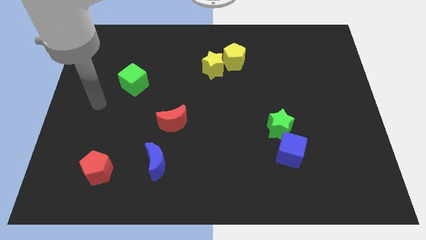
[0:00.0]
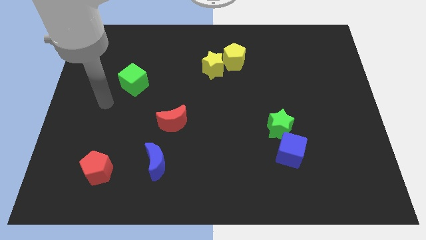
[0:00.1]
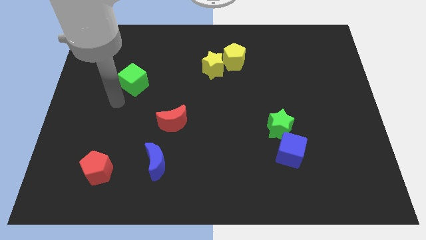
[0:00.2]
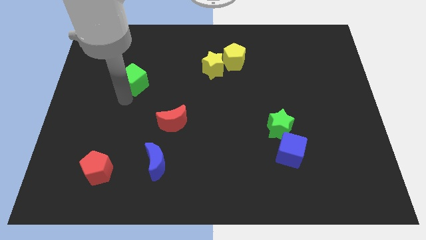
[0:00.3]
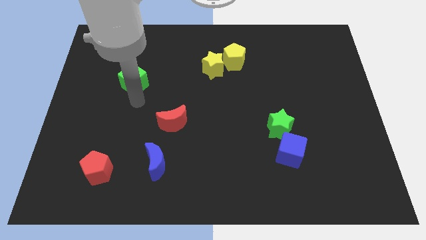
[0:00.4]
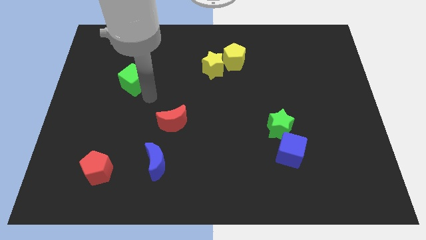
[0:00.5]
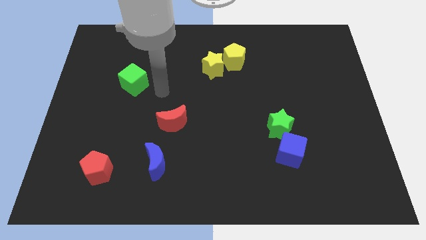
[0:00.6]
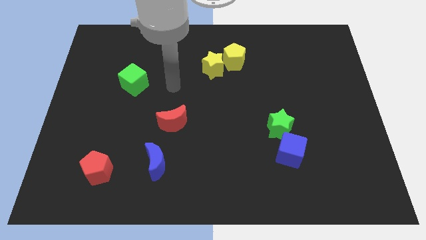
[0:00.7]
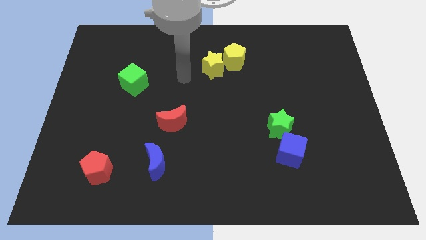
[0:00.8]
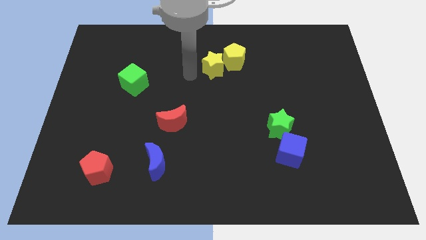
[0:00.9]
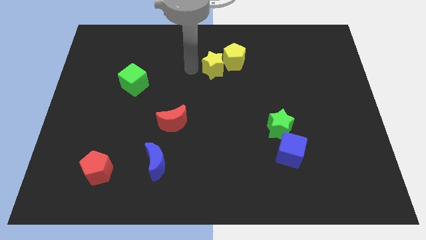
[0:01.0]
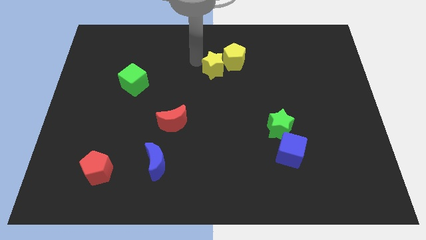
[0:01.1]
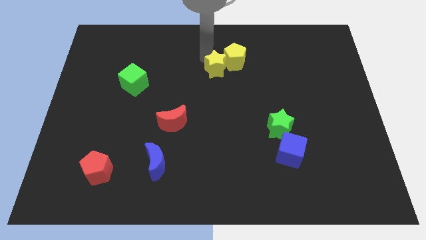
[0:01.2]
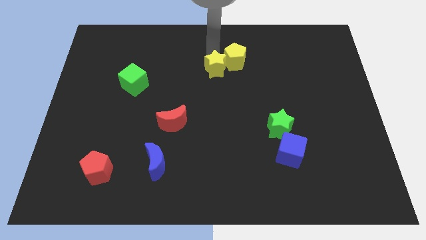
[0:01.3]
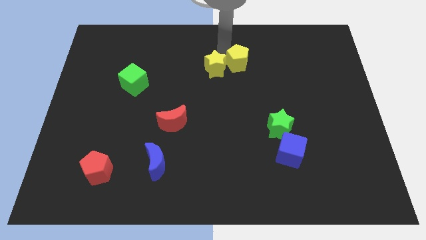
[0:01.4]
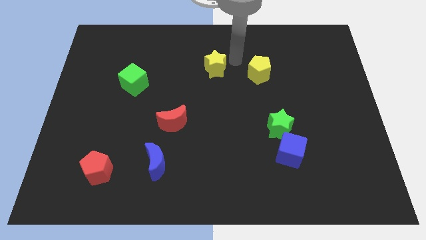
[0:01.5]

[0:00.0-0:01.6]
separate the yellow star from the yellow pentagon

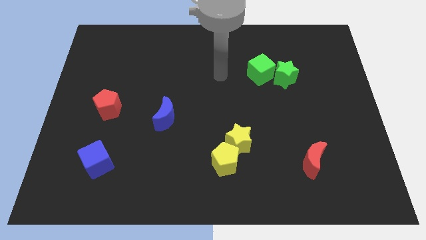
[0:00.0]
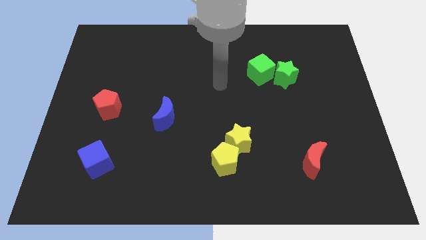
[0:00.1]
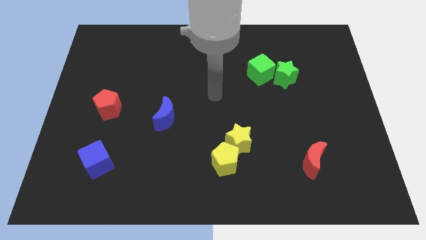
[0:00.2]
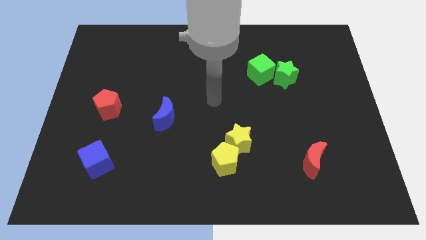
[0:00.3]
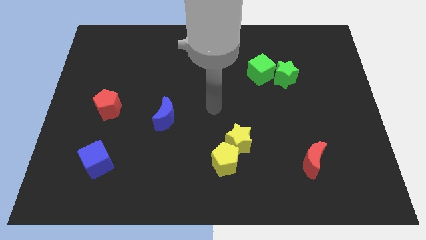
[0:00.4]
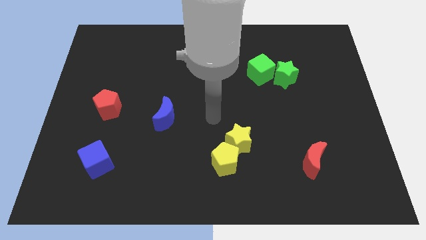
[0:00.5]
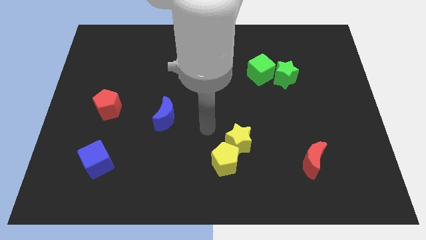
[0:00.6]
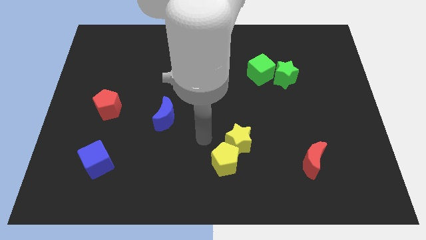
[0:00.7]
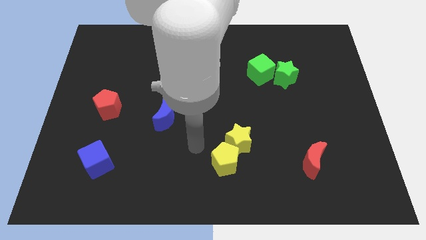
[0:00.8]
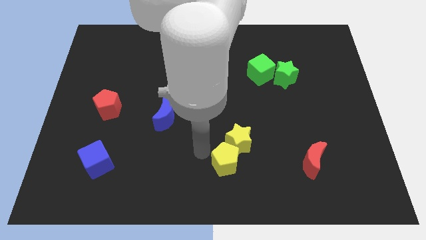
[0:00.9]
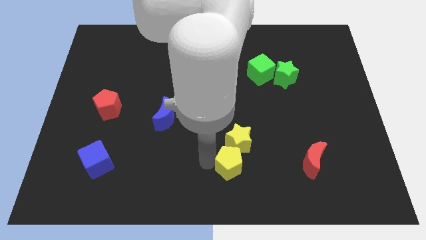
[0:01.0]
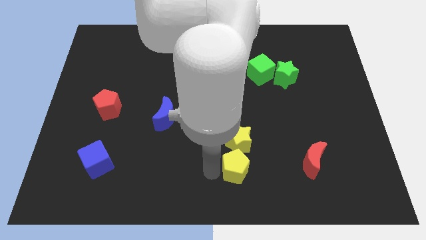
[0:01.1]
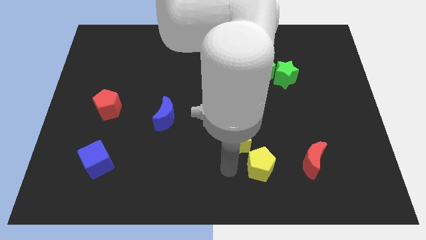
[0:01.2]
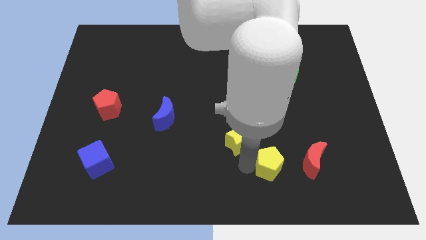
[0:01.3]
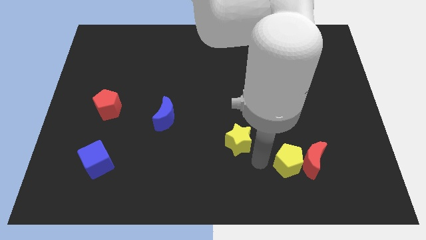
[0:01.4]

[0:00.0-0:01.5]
pull the yellow star apart from the yellow pentagon

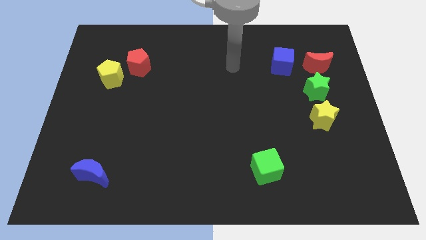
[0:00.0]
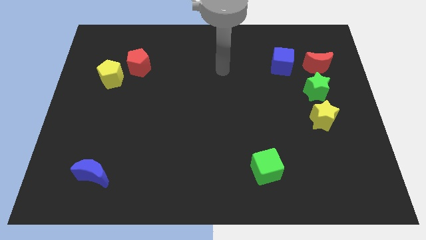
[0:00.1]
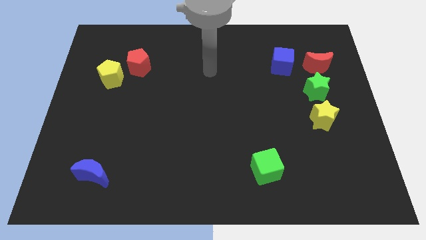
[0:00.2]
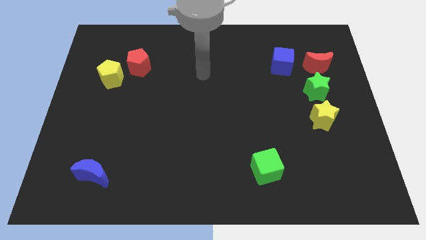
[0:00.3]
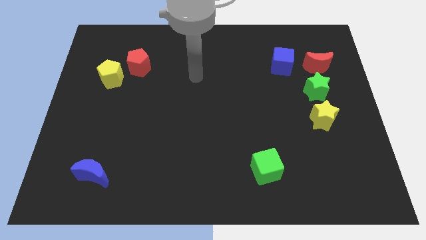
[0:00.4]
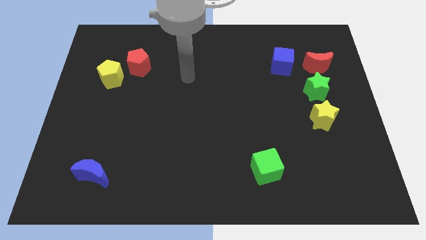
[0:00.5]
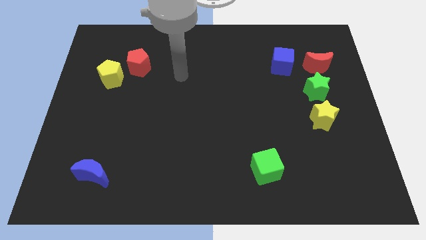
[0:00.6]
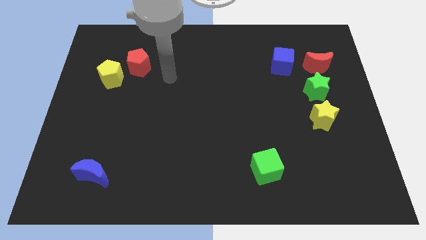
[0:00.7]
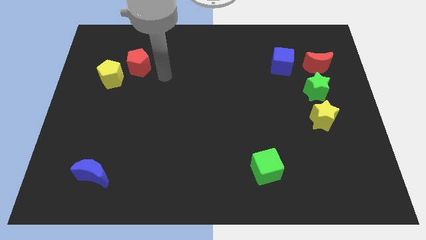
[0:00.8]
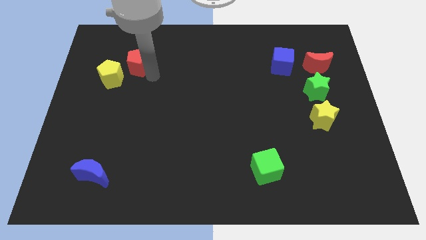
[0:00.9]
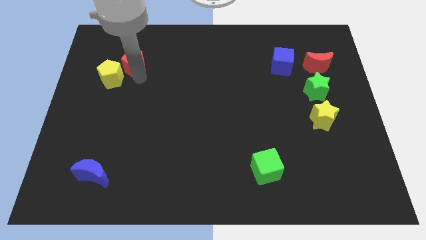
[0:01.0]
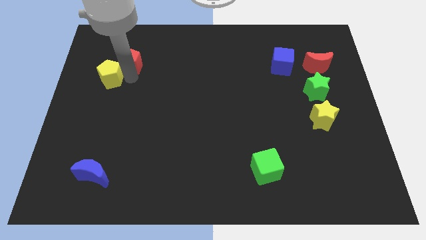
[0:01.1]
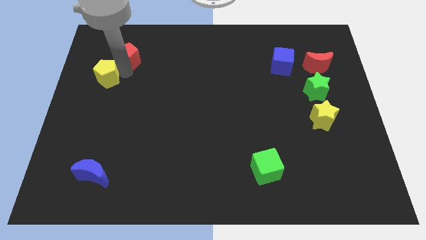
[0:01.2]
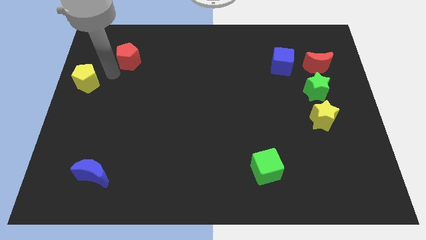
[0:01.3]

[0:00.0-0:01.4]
separate the red pentagon from the yellow pentagon

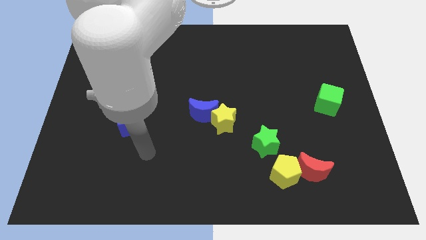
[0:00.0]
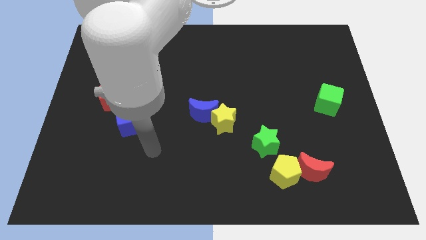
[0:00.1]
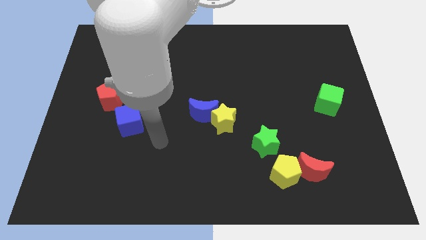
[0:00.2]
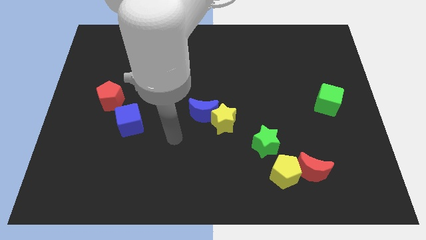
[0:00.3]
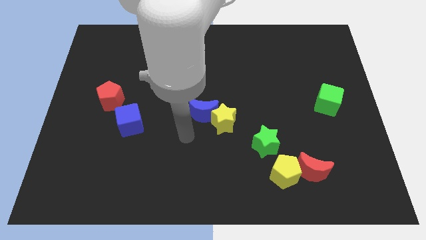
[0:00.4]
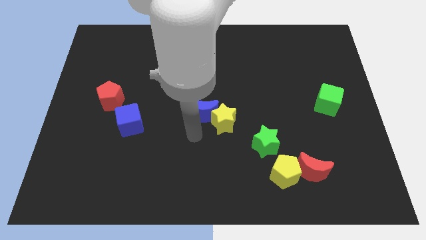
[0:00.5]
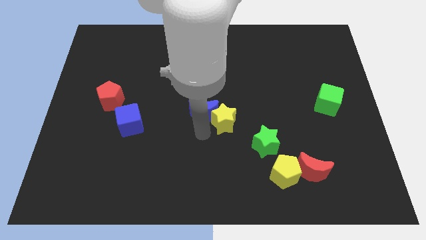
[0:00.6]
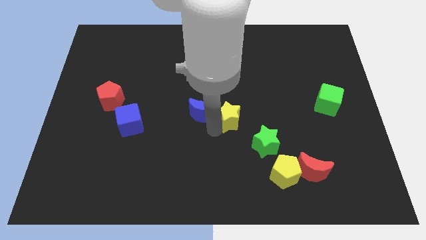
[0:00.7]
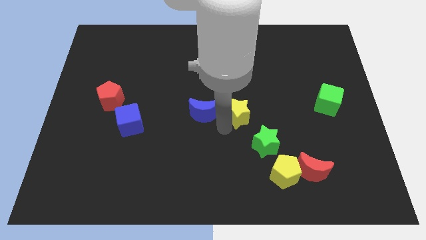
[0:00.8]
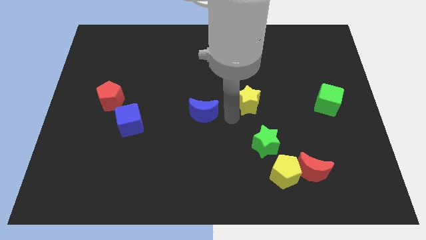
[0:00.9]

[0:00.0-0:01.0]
separate the blue moon from the yellow star

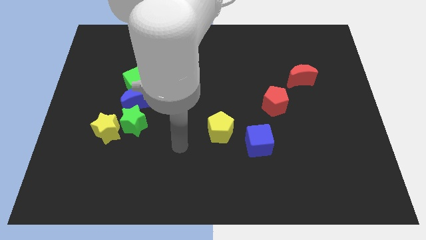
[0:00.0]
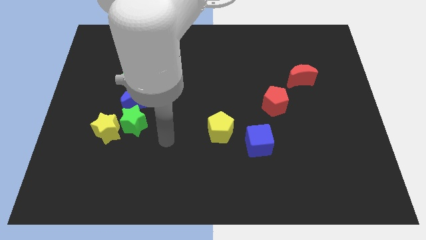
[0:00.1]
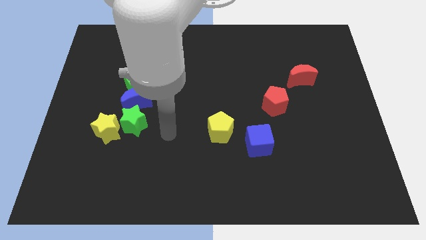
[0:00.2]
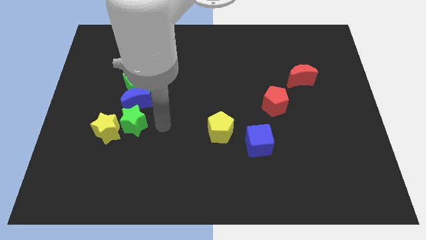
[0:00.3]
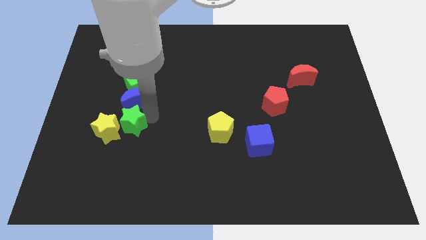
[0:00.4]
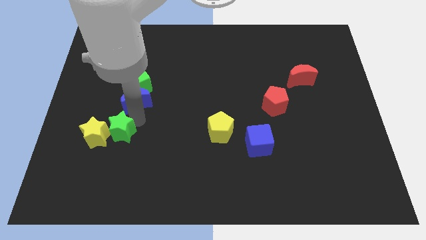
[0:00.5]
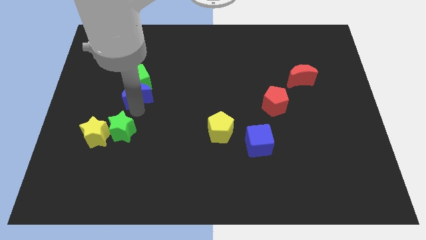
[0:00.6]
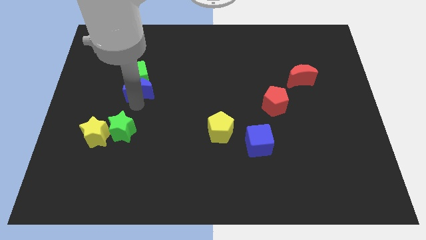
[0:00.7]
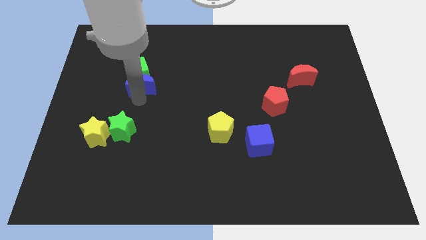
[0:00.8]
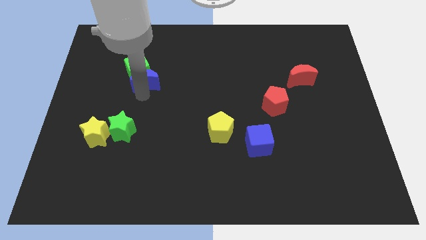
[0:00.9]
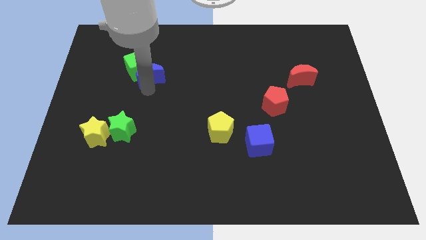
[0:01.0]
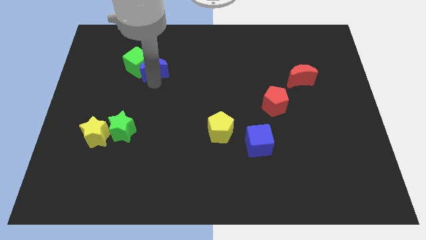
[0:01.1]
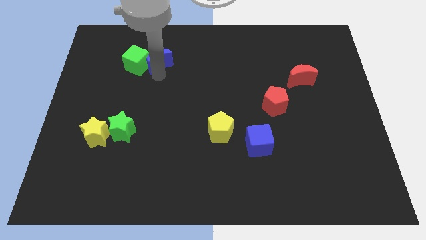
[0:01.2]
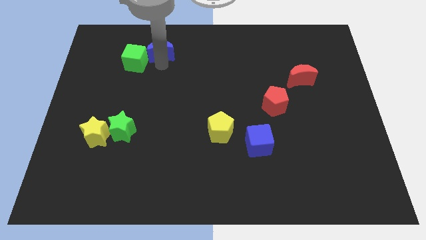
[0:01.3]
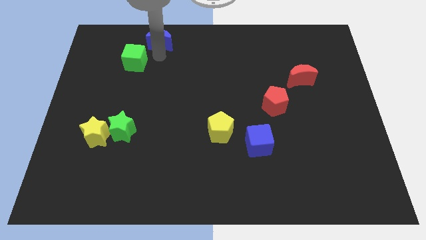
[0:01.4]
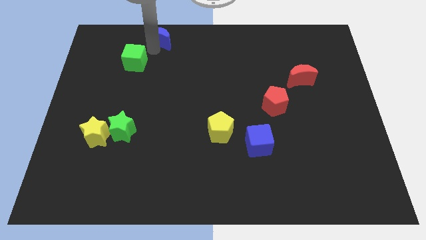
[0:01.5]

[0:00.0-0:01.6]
move the green cube away from the blue moon

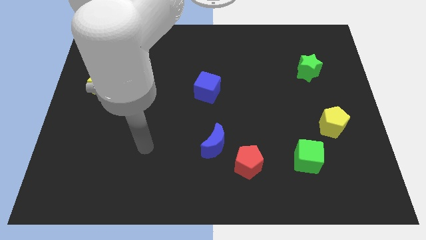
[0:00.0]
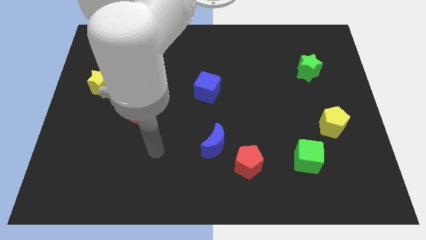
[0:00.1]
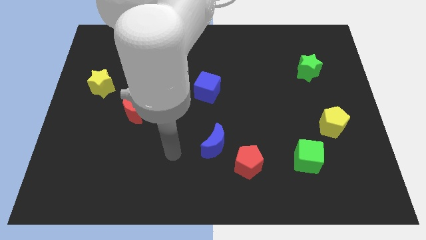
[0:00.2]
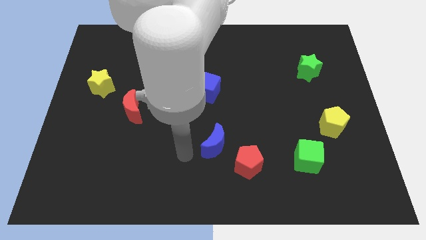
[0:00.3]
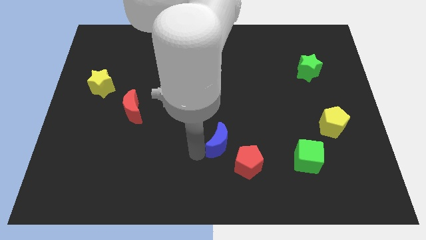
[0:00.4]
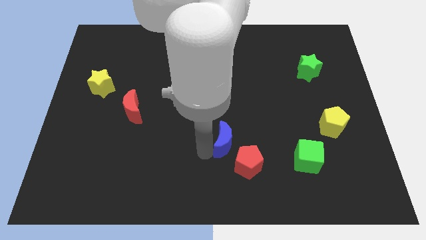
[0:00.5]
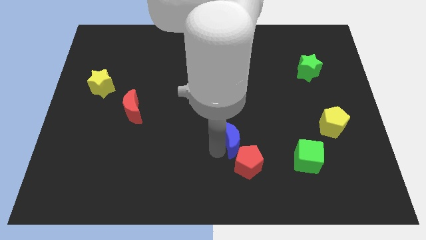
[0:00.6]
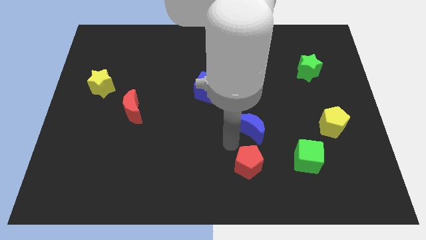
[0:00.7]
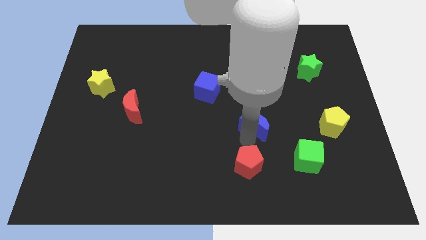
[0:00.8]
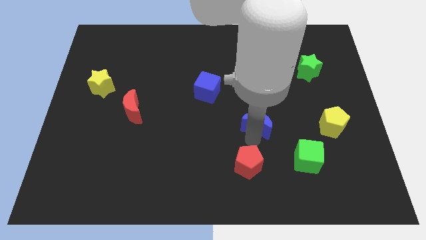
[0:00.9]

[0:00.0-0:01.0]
separate the red pentagon from the blue moon

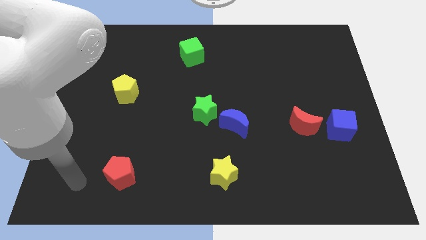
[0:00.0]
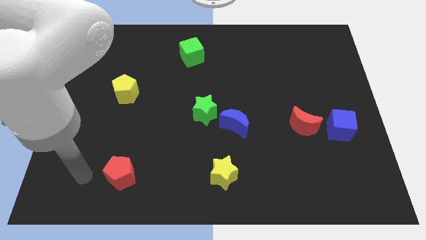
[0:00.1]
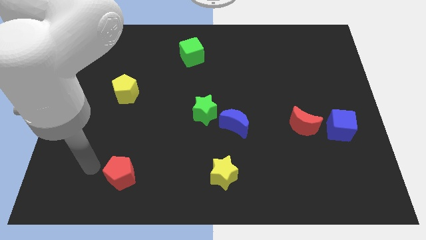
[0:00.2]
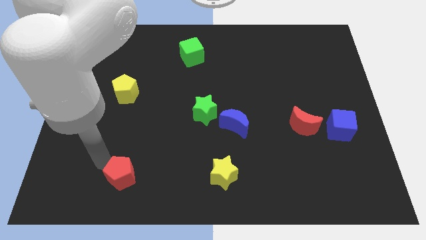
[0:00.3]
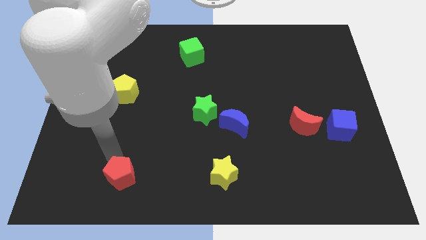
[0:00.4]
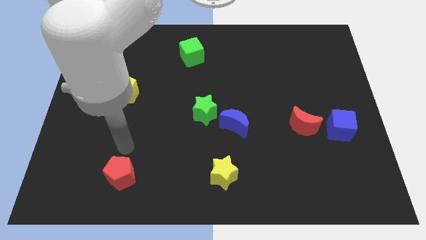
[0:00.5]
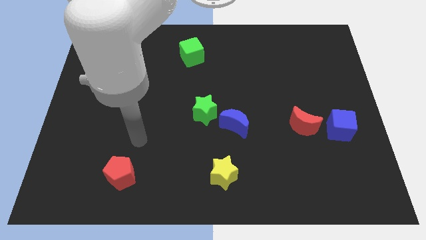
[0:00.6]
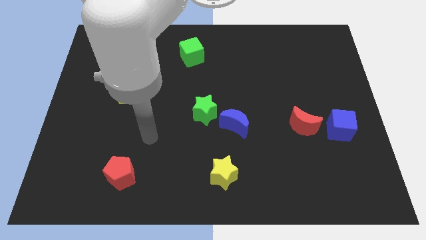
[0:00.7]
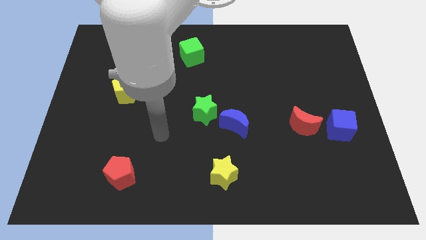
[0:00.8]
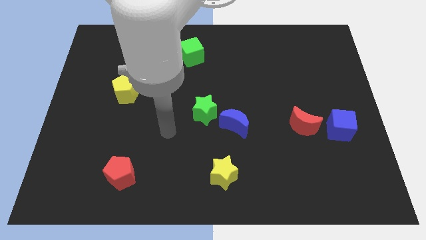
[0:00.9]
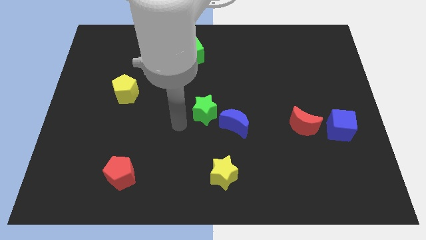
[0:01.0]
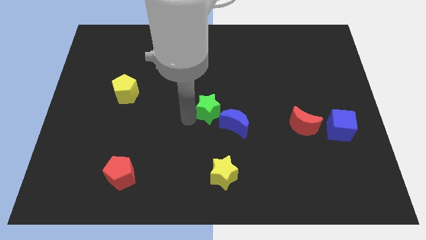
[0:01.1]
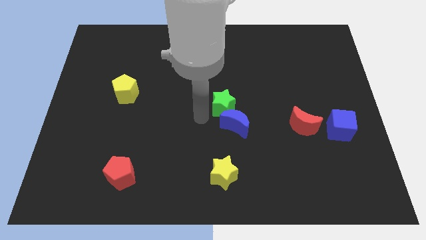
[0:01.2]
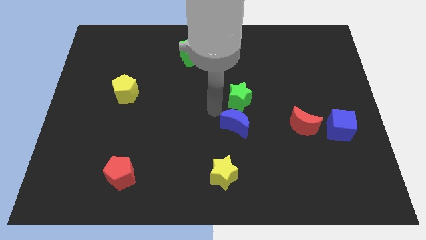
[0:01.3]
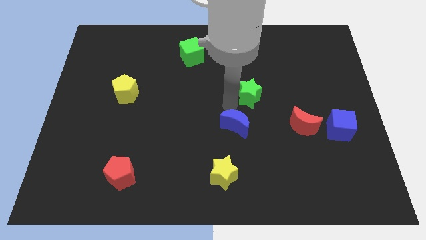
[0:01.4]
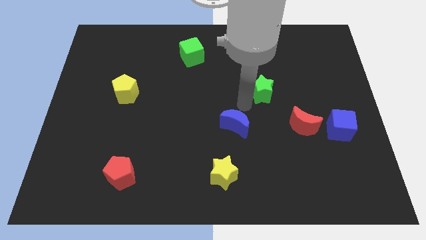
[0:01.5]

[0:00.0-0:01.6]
pull the blue moon apart from the green star
